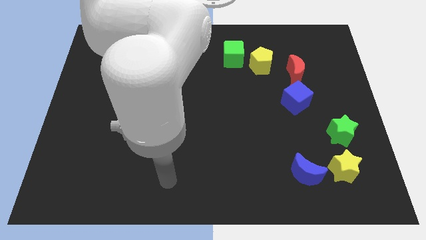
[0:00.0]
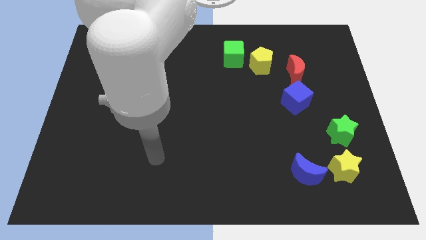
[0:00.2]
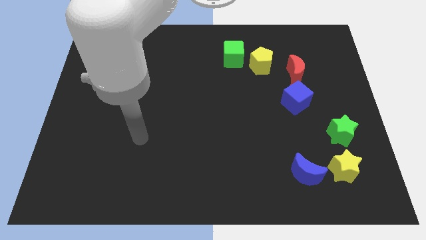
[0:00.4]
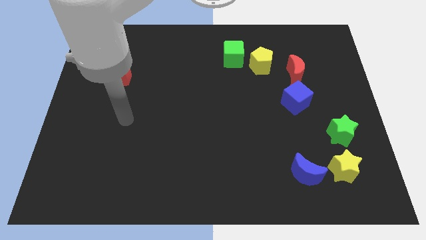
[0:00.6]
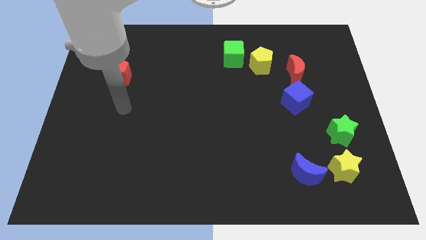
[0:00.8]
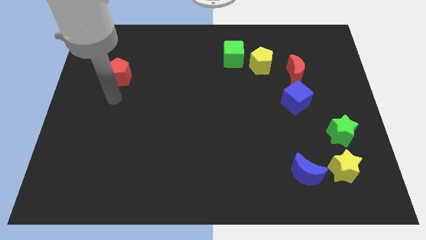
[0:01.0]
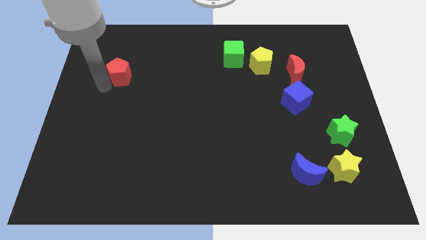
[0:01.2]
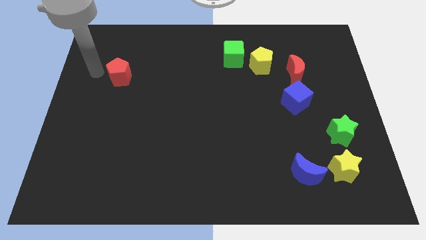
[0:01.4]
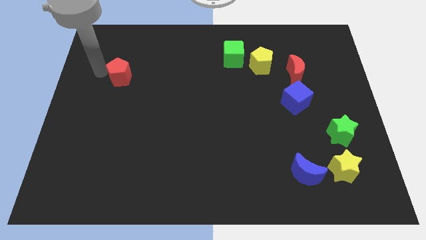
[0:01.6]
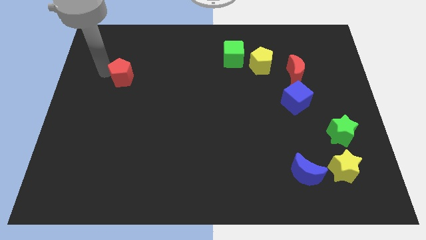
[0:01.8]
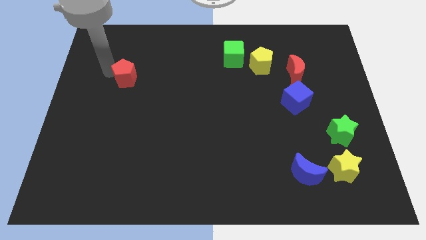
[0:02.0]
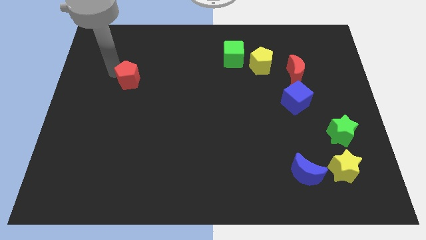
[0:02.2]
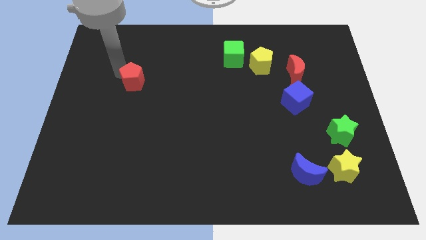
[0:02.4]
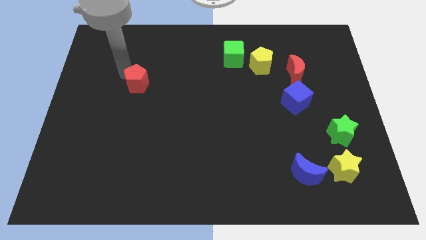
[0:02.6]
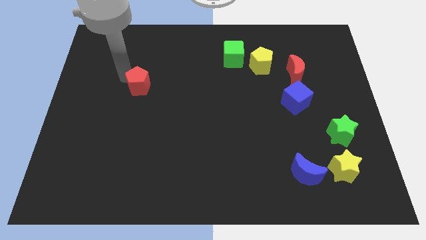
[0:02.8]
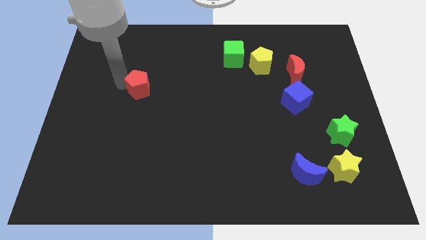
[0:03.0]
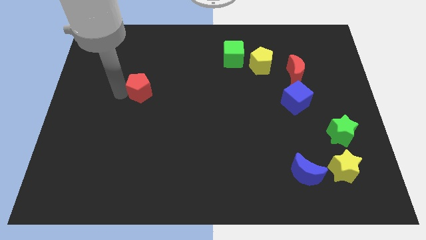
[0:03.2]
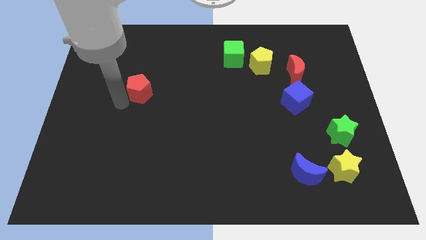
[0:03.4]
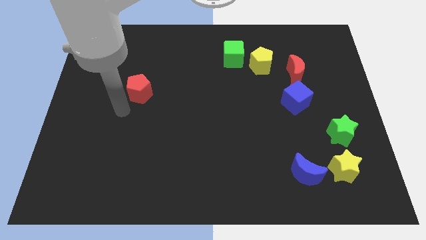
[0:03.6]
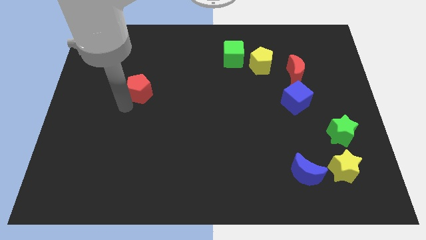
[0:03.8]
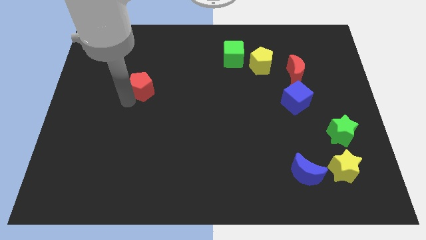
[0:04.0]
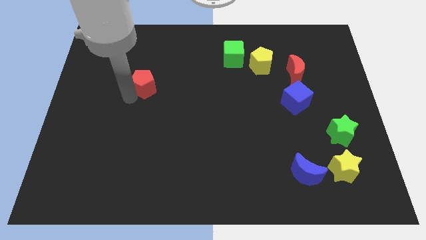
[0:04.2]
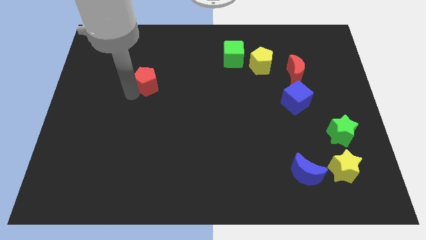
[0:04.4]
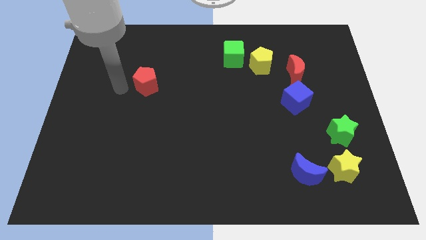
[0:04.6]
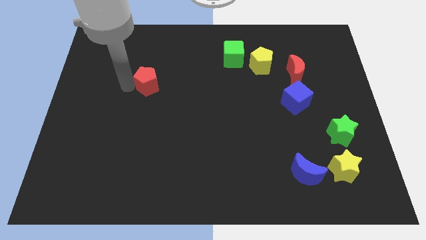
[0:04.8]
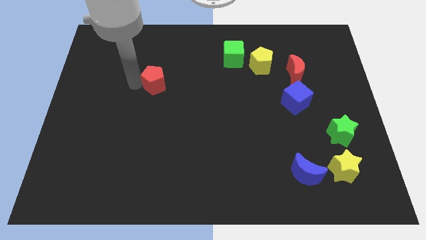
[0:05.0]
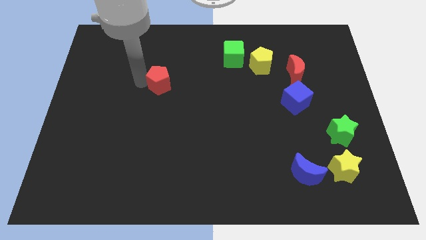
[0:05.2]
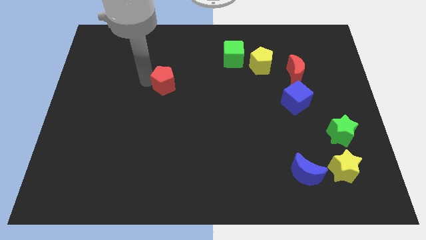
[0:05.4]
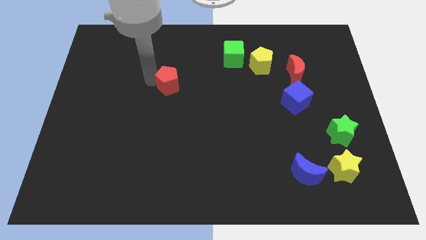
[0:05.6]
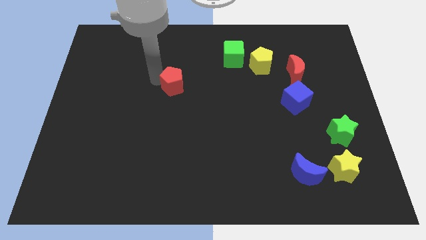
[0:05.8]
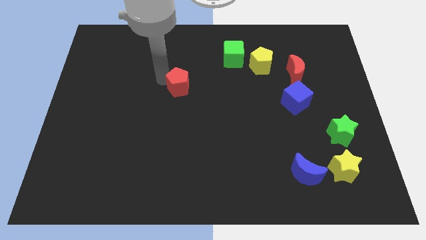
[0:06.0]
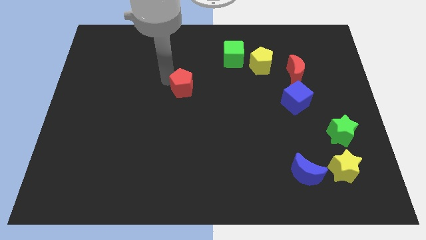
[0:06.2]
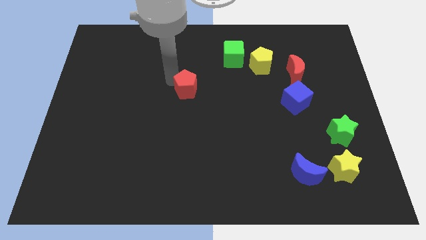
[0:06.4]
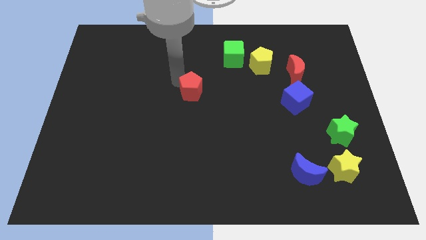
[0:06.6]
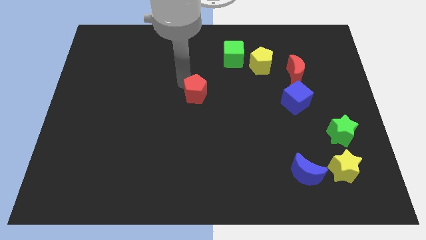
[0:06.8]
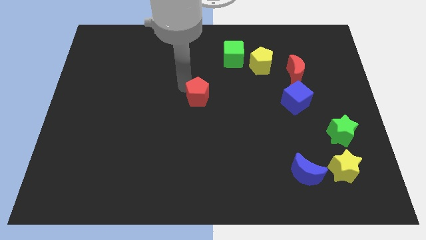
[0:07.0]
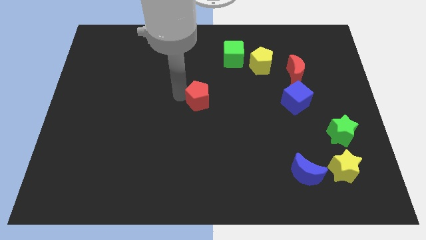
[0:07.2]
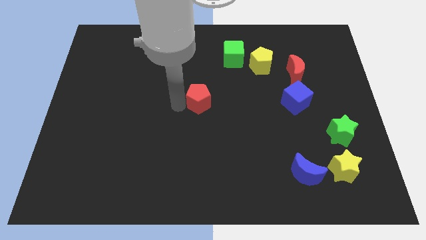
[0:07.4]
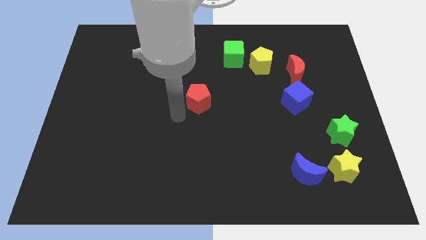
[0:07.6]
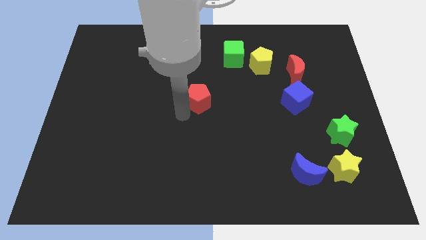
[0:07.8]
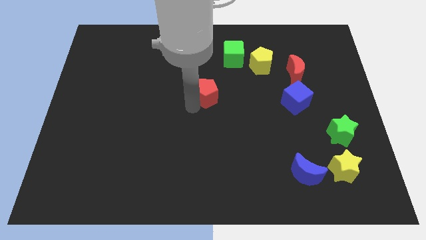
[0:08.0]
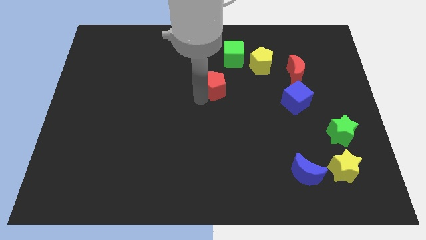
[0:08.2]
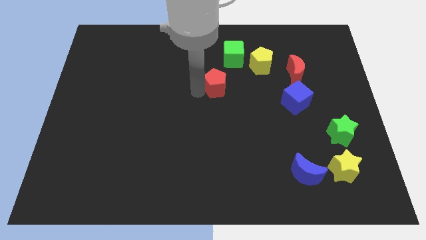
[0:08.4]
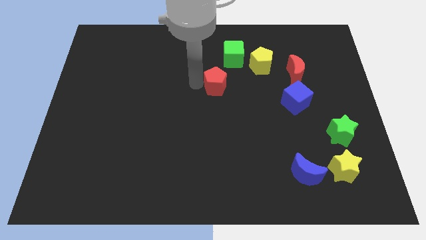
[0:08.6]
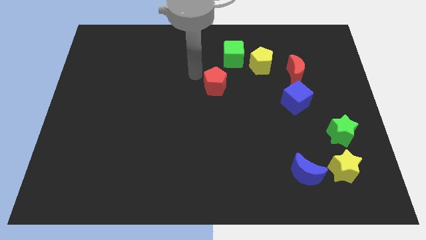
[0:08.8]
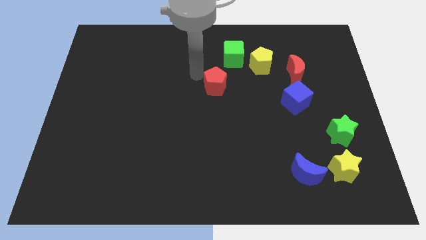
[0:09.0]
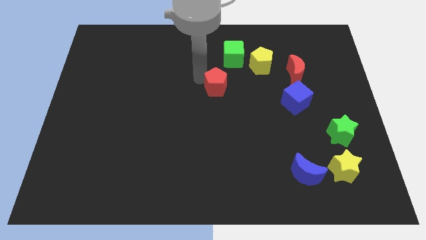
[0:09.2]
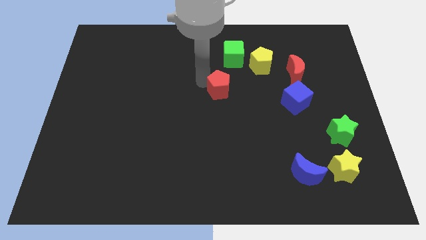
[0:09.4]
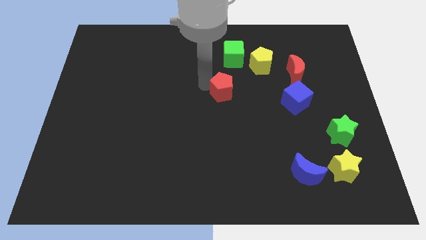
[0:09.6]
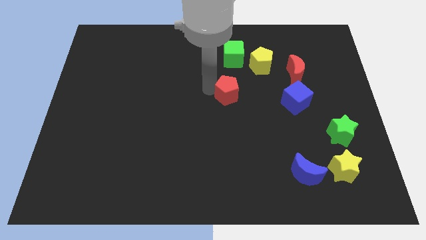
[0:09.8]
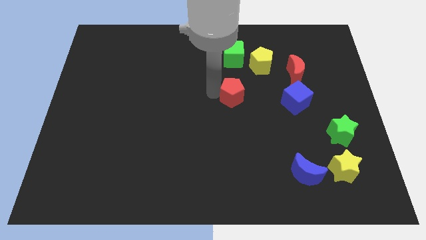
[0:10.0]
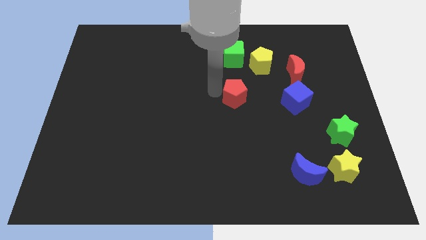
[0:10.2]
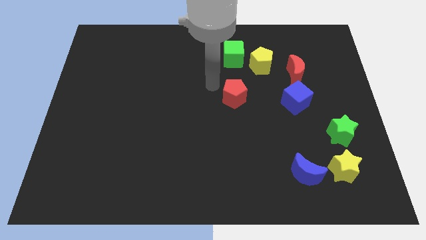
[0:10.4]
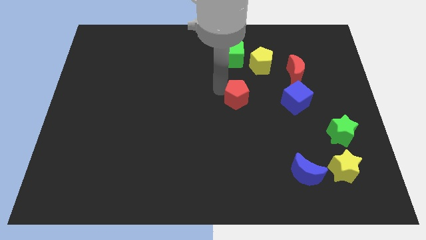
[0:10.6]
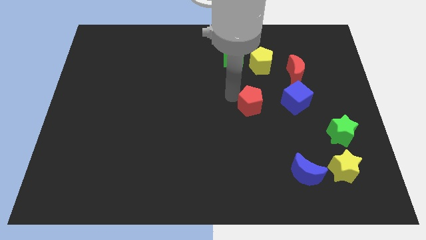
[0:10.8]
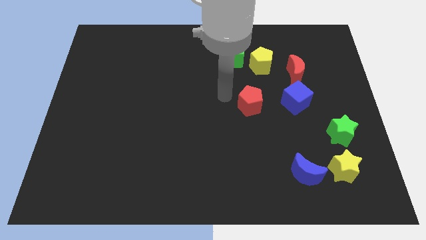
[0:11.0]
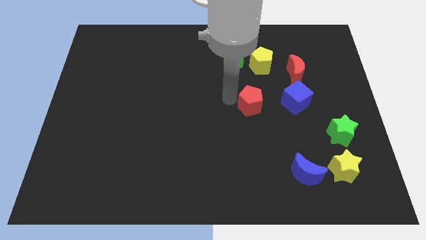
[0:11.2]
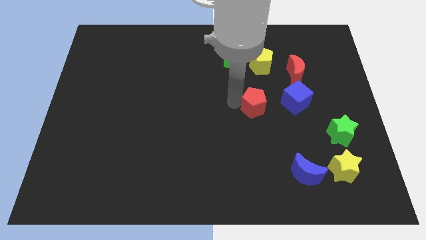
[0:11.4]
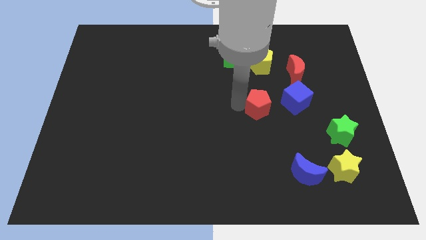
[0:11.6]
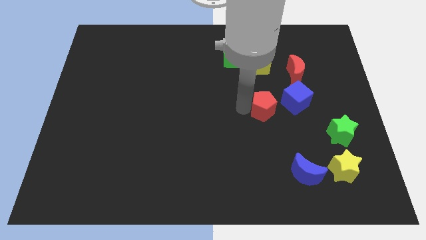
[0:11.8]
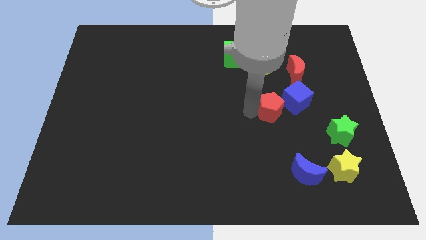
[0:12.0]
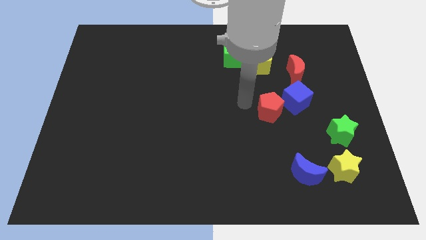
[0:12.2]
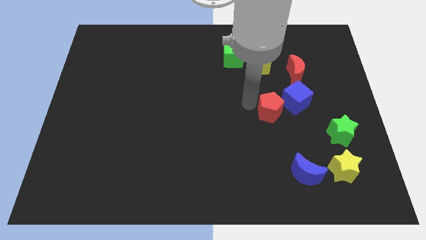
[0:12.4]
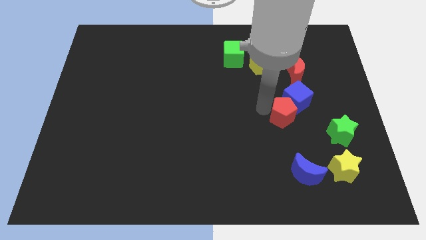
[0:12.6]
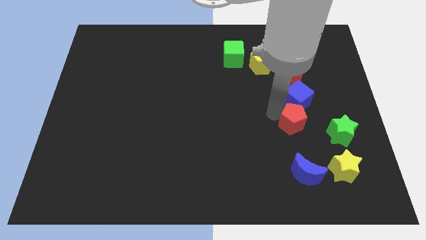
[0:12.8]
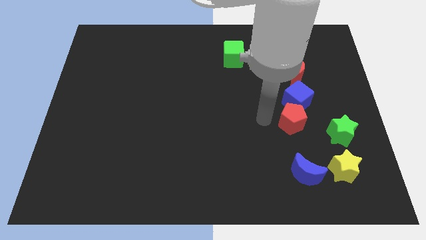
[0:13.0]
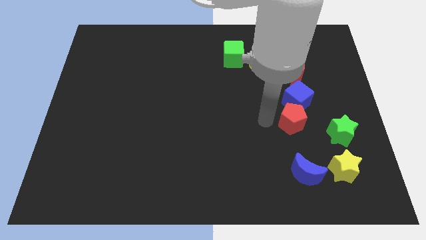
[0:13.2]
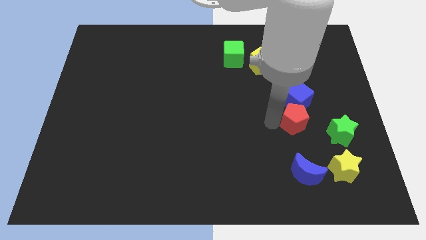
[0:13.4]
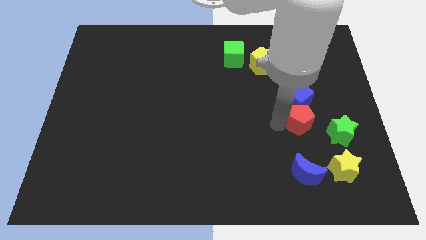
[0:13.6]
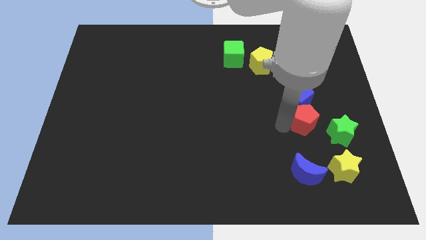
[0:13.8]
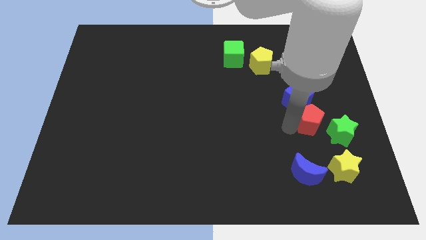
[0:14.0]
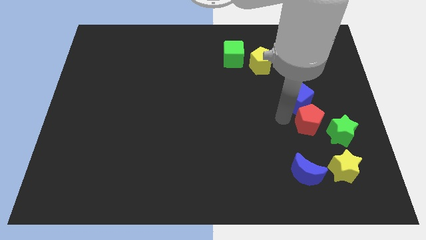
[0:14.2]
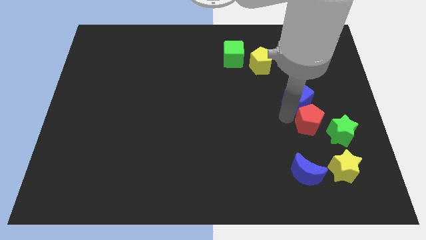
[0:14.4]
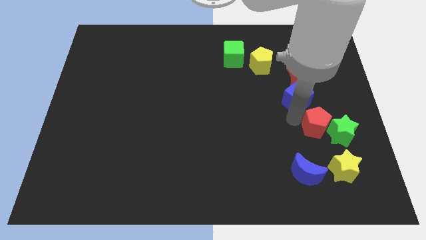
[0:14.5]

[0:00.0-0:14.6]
push the red pentagon towards the green star
